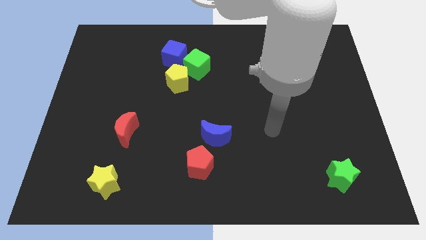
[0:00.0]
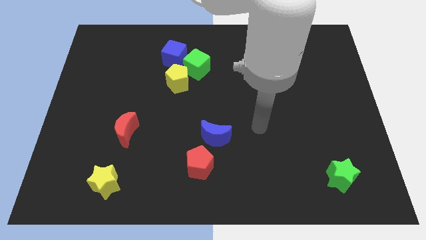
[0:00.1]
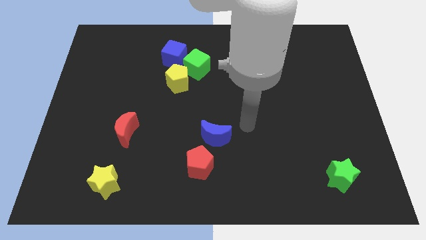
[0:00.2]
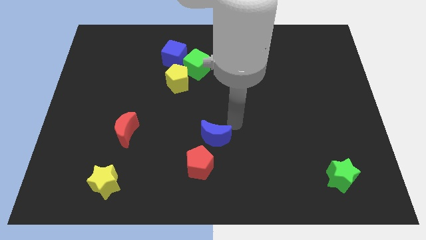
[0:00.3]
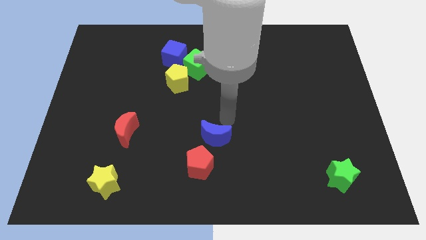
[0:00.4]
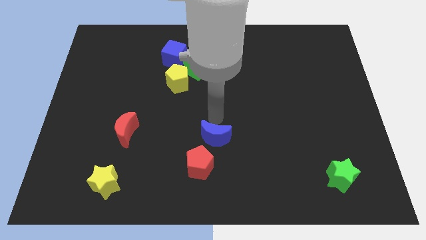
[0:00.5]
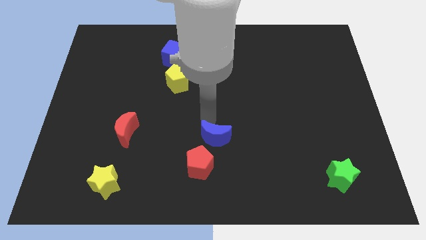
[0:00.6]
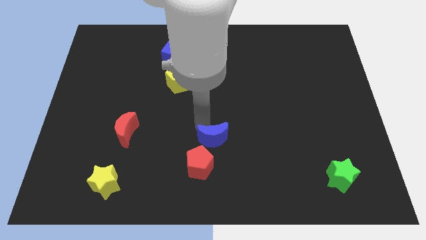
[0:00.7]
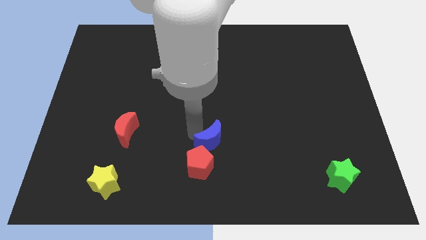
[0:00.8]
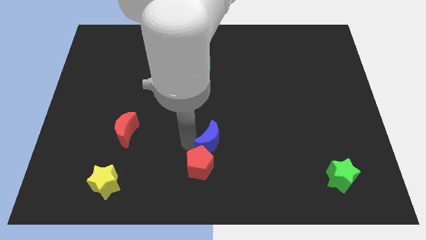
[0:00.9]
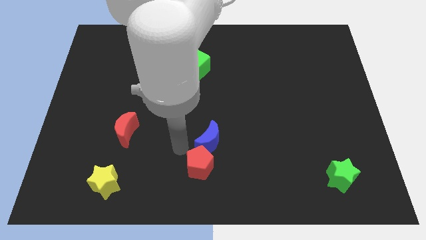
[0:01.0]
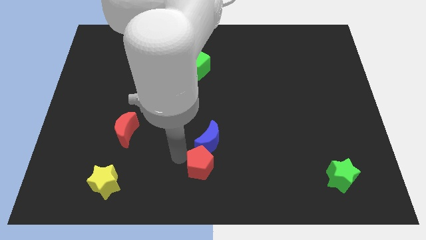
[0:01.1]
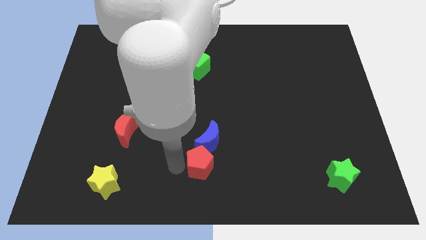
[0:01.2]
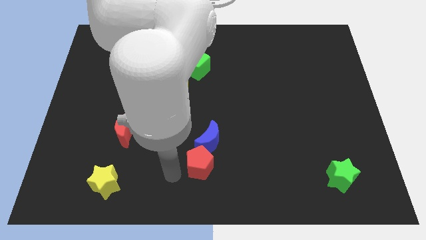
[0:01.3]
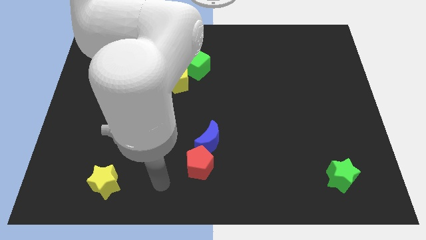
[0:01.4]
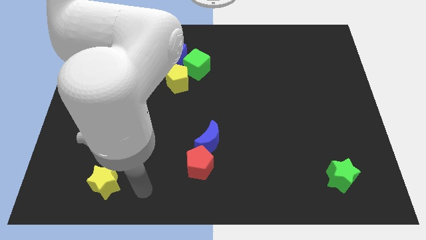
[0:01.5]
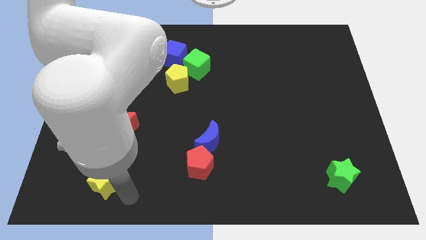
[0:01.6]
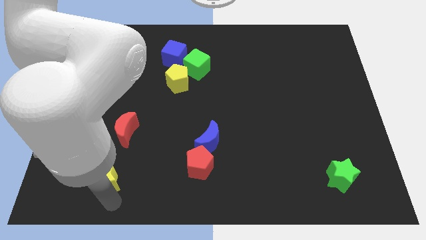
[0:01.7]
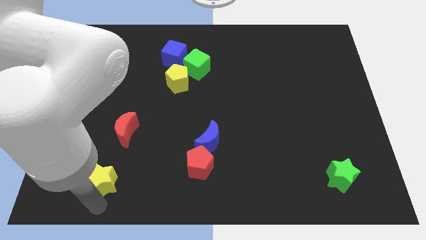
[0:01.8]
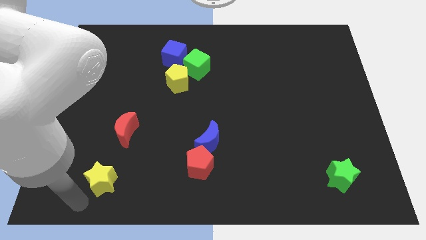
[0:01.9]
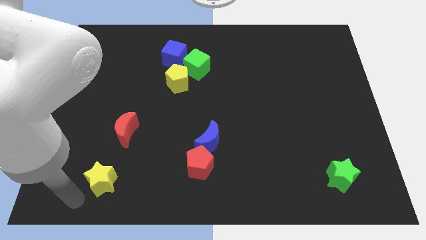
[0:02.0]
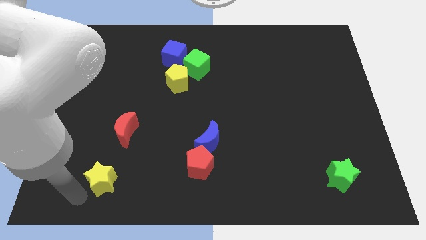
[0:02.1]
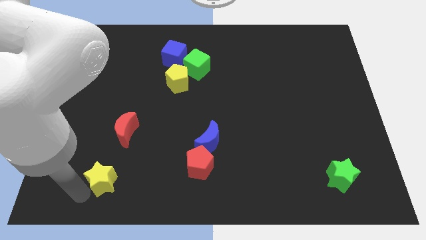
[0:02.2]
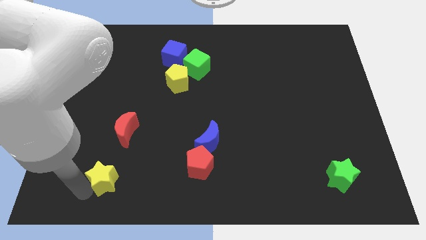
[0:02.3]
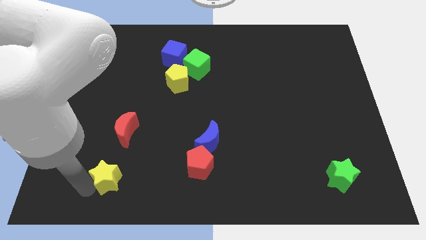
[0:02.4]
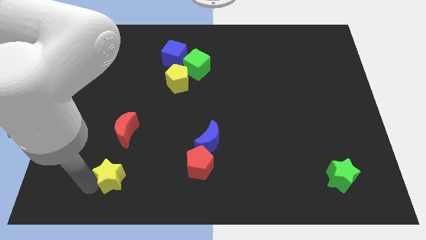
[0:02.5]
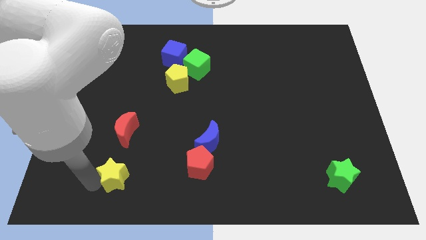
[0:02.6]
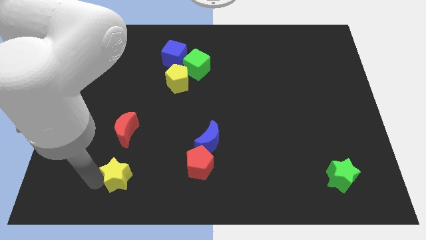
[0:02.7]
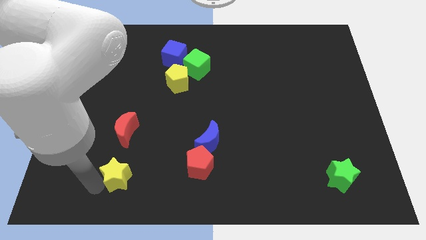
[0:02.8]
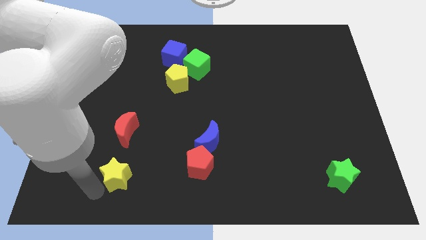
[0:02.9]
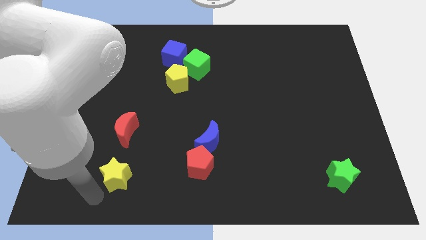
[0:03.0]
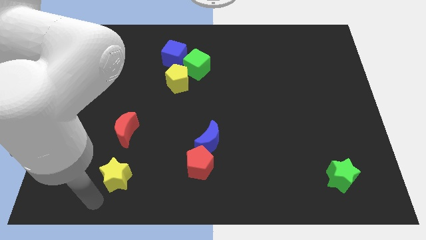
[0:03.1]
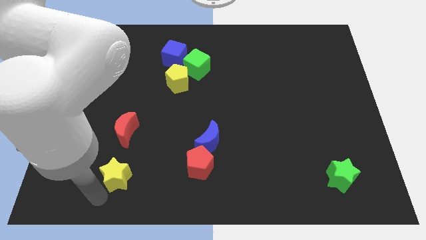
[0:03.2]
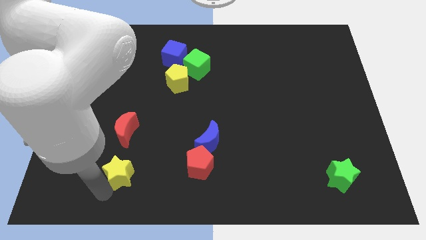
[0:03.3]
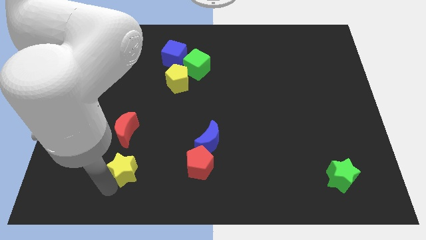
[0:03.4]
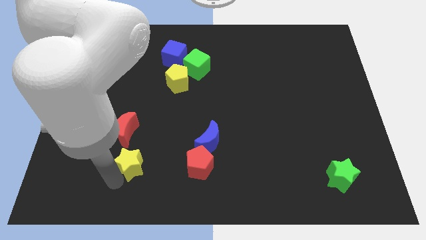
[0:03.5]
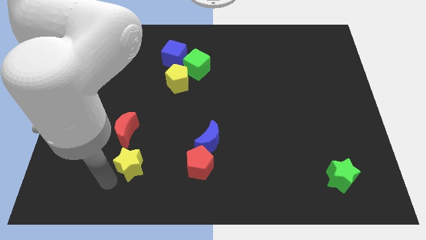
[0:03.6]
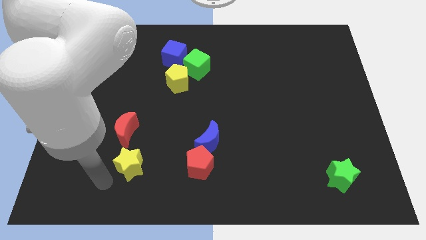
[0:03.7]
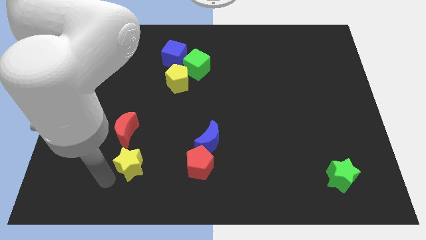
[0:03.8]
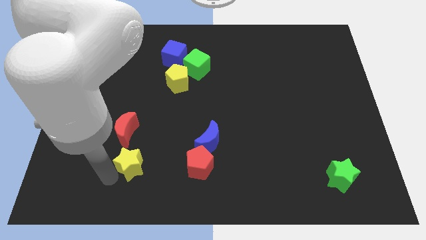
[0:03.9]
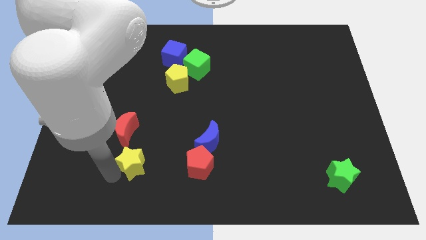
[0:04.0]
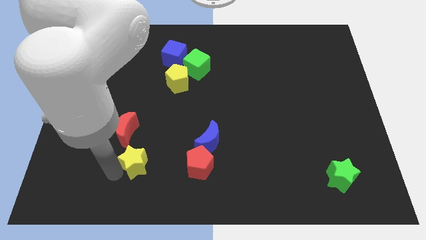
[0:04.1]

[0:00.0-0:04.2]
slightly slide the yellow star upwards and right diagonally

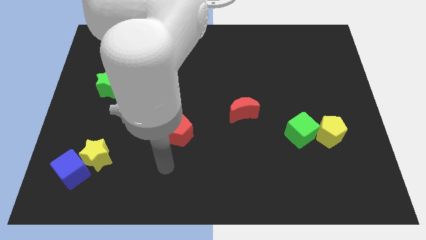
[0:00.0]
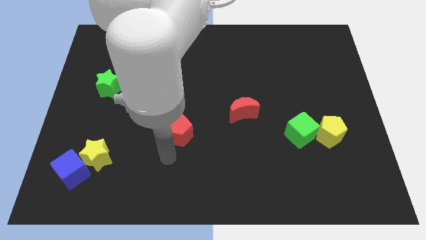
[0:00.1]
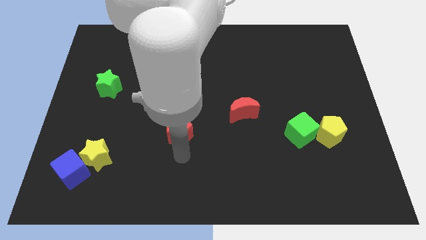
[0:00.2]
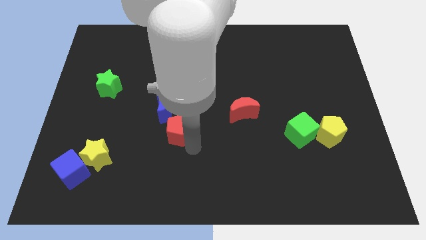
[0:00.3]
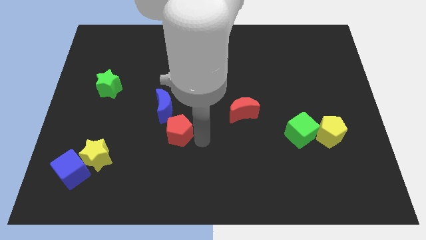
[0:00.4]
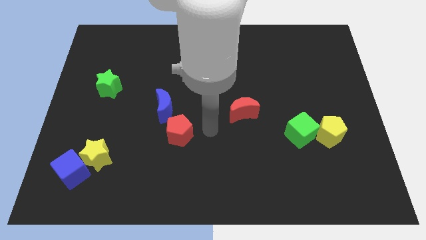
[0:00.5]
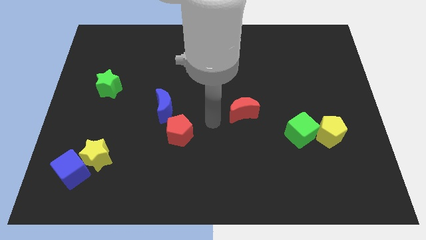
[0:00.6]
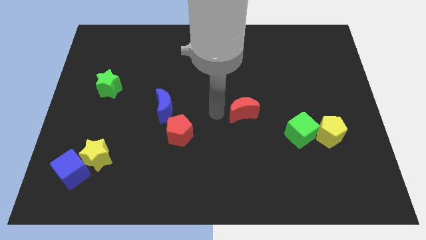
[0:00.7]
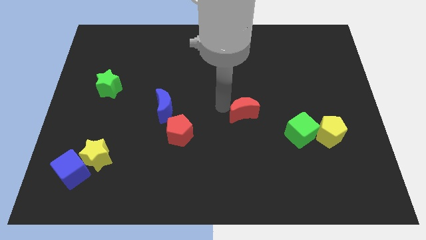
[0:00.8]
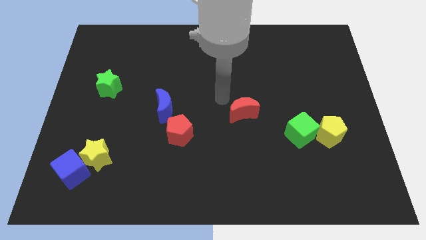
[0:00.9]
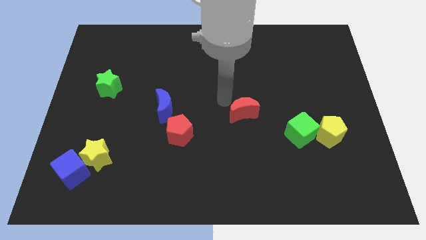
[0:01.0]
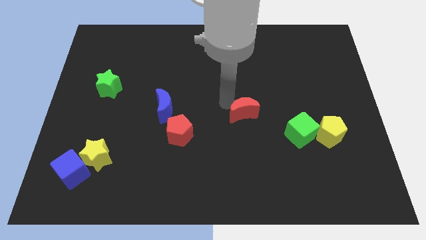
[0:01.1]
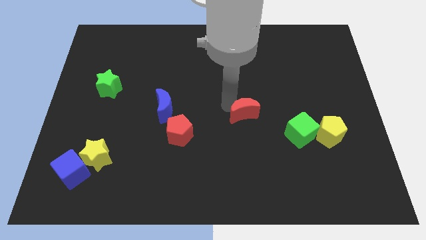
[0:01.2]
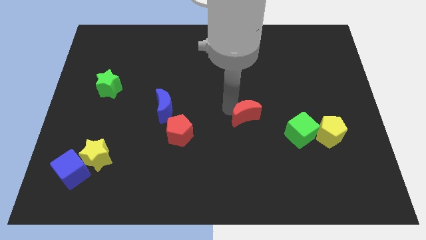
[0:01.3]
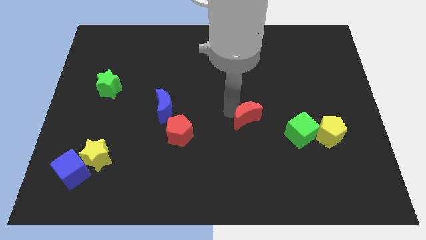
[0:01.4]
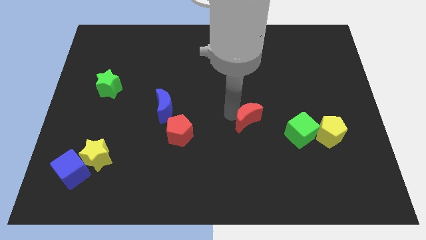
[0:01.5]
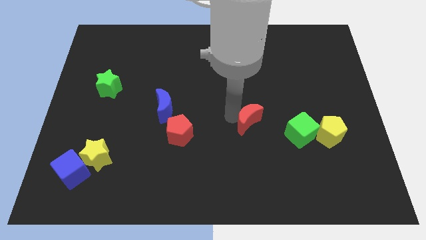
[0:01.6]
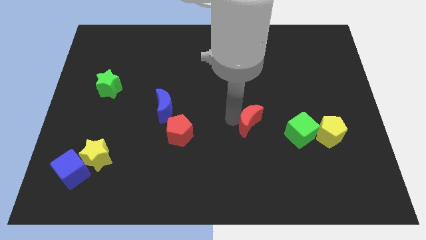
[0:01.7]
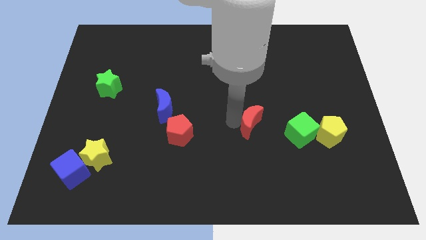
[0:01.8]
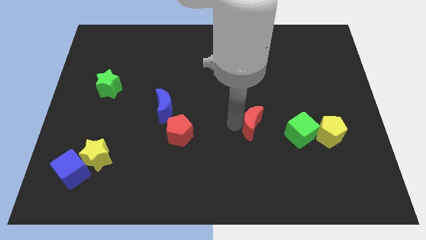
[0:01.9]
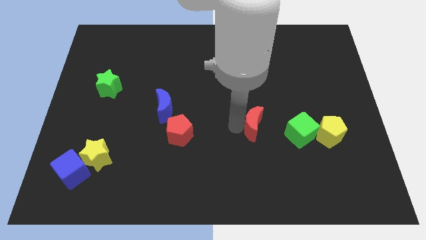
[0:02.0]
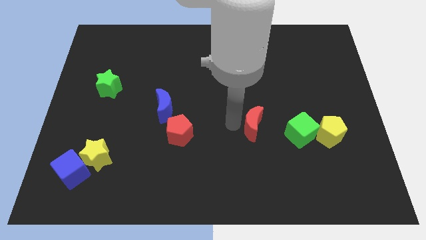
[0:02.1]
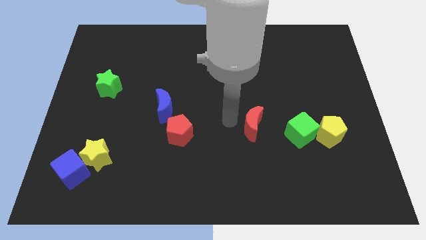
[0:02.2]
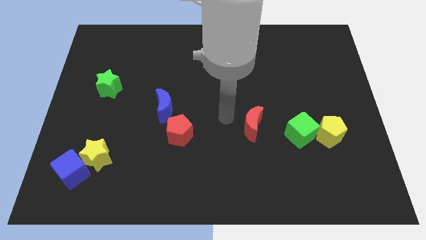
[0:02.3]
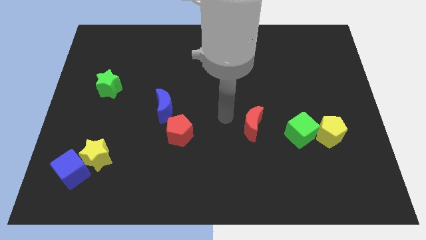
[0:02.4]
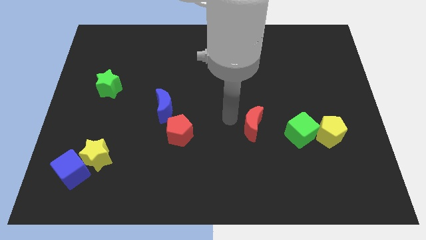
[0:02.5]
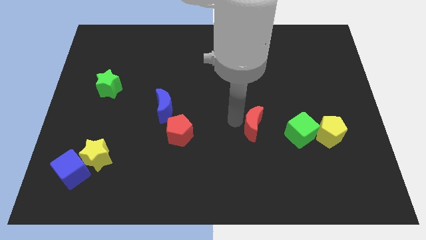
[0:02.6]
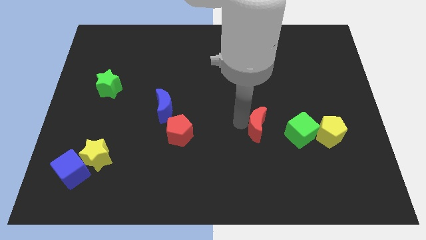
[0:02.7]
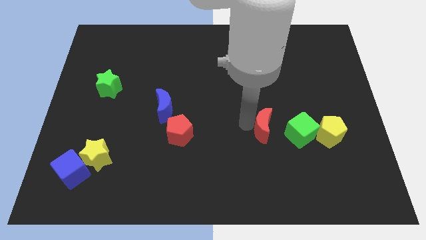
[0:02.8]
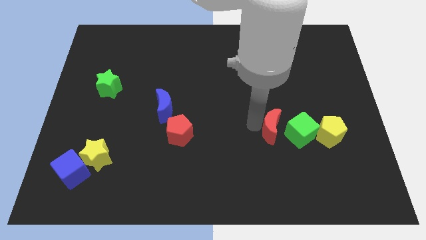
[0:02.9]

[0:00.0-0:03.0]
push the red moon down and then right somewhat

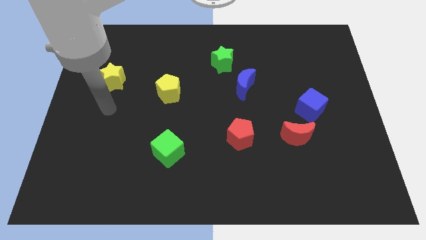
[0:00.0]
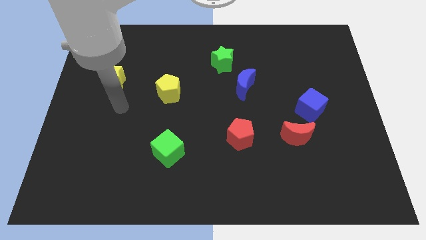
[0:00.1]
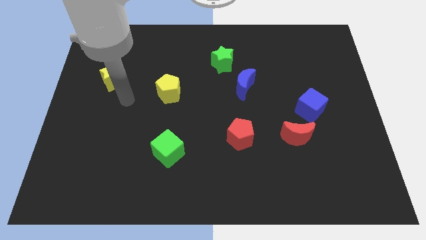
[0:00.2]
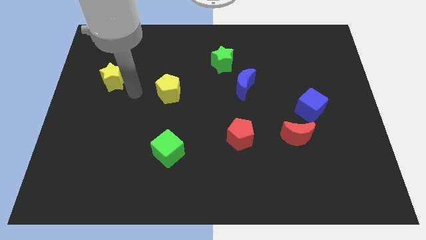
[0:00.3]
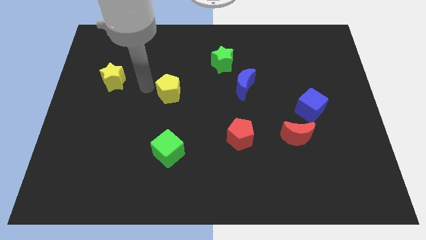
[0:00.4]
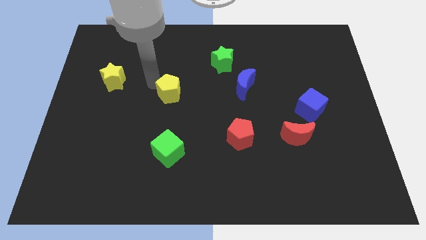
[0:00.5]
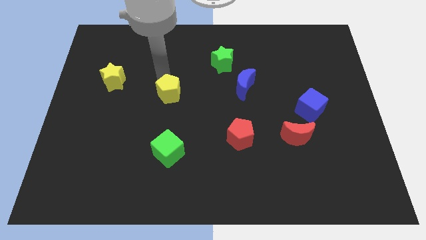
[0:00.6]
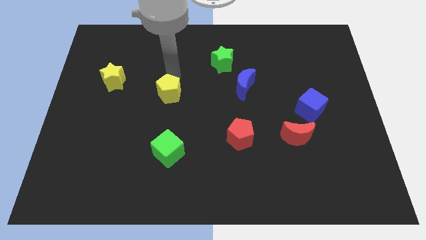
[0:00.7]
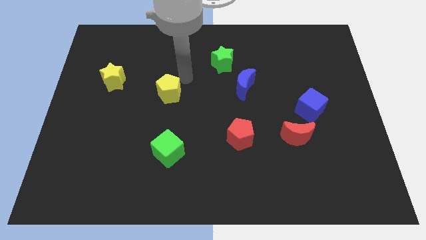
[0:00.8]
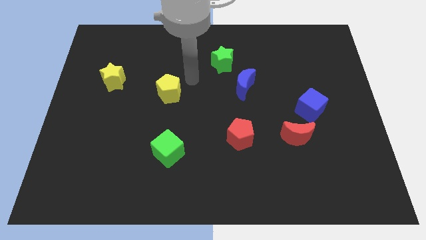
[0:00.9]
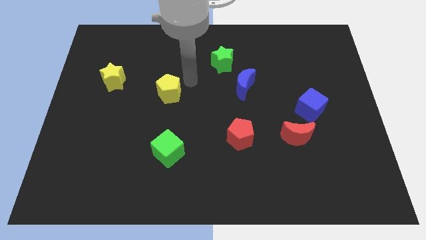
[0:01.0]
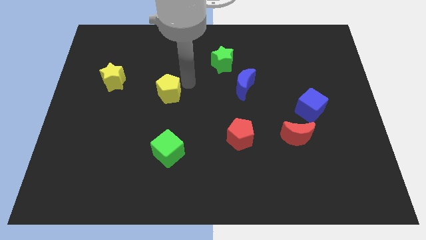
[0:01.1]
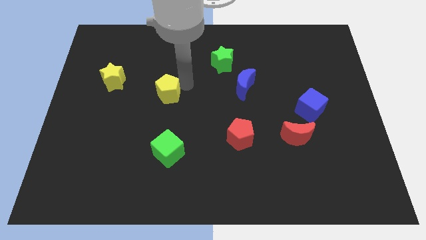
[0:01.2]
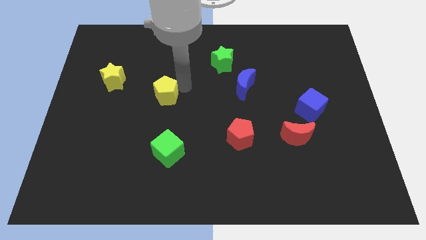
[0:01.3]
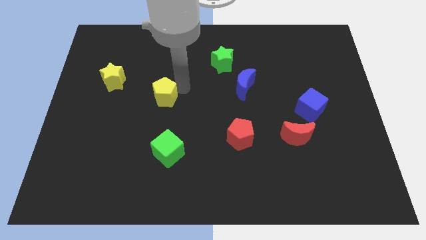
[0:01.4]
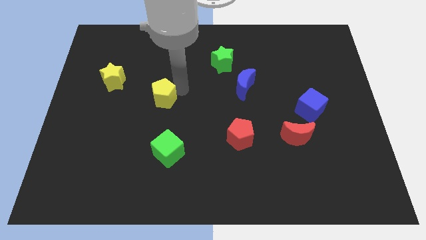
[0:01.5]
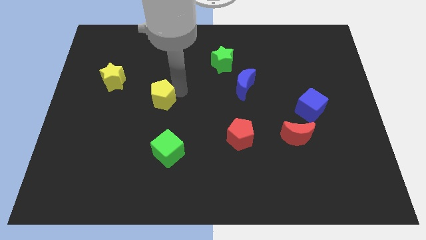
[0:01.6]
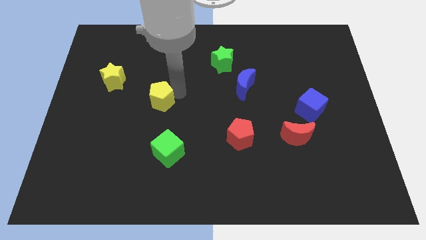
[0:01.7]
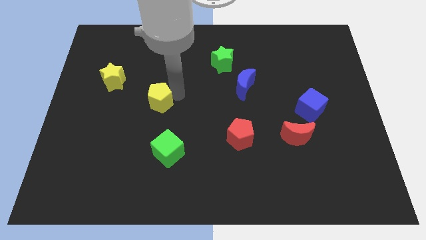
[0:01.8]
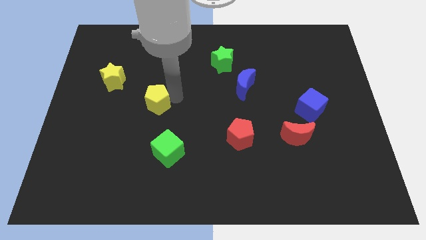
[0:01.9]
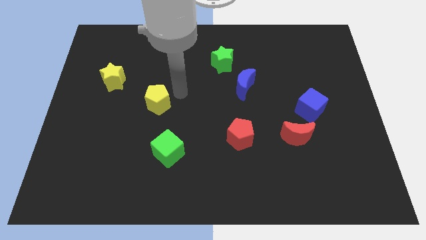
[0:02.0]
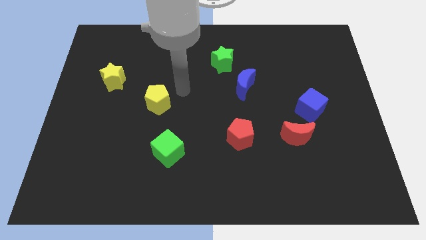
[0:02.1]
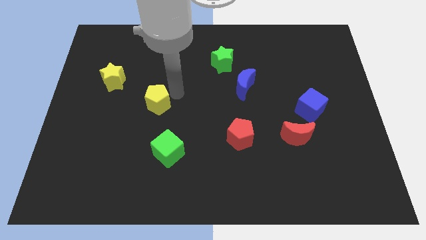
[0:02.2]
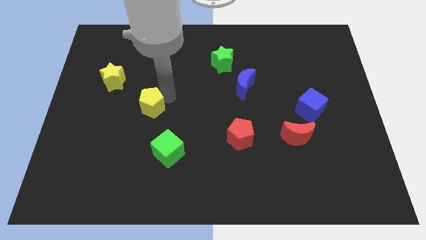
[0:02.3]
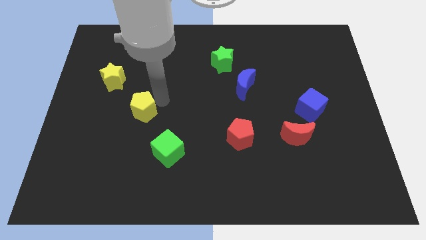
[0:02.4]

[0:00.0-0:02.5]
slightly slide the yellow pentagon diagonally downwards and to the left
